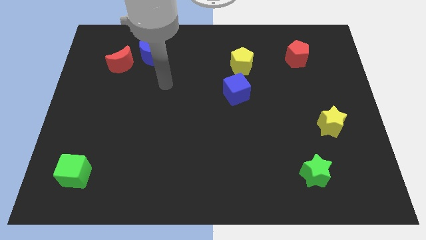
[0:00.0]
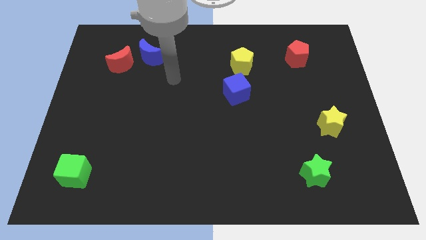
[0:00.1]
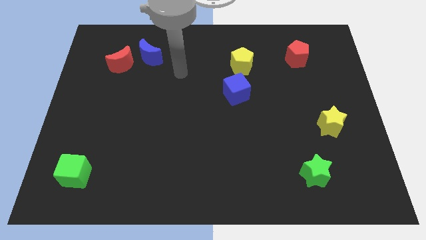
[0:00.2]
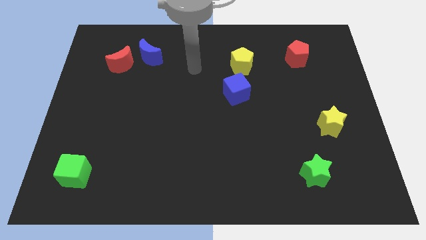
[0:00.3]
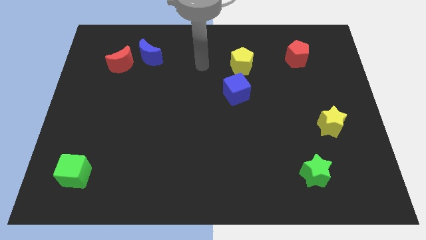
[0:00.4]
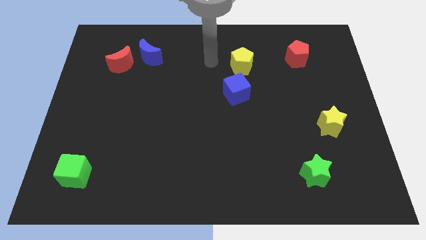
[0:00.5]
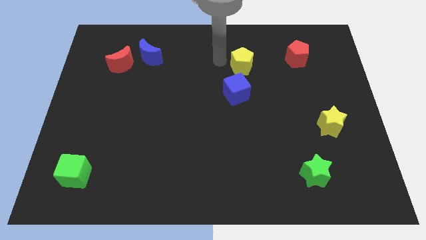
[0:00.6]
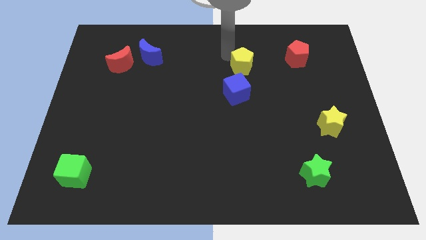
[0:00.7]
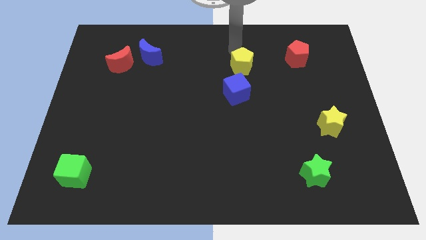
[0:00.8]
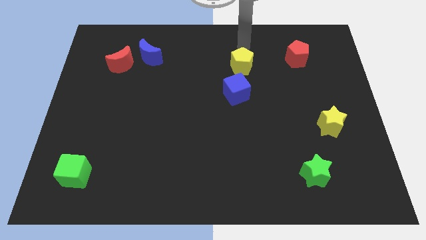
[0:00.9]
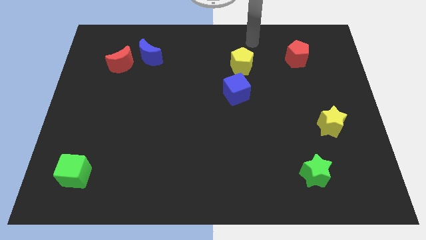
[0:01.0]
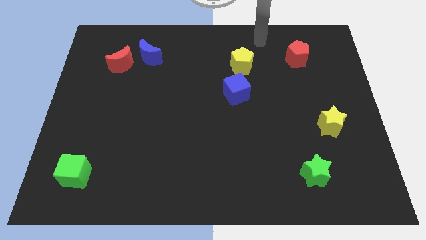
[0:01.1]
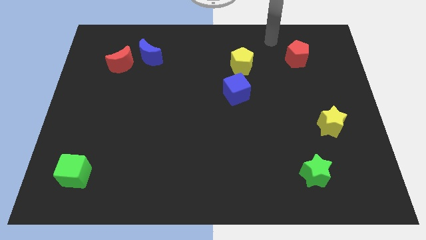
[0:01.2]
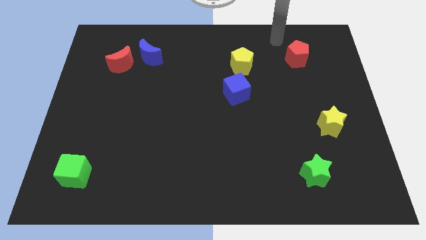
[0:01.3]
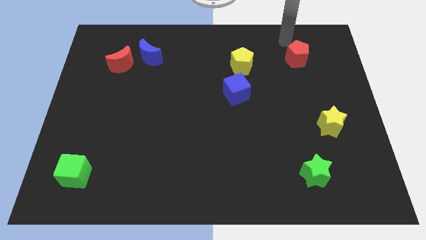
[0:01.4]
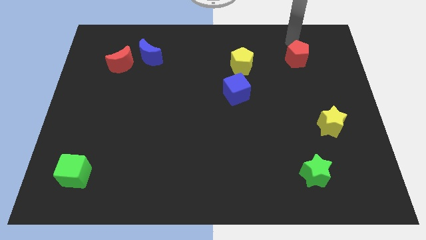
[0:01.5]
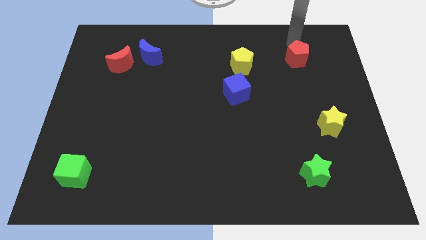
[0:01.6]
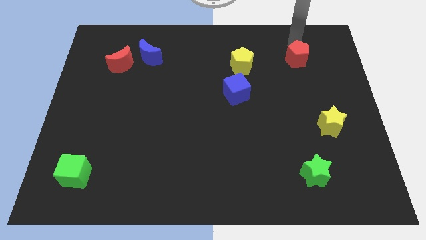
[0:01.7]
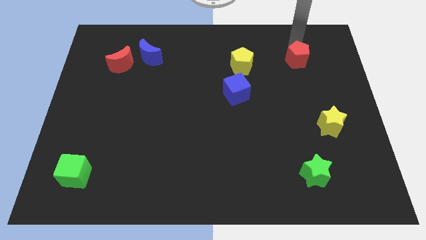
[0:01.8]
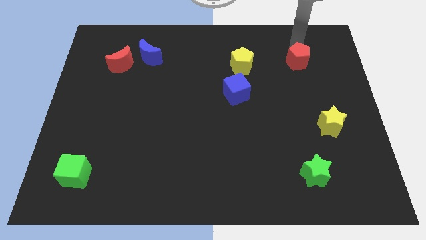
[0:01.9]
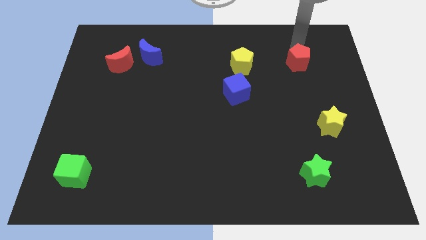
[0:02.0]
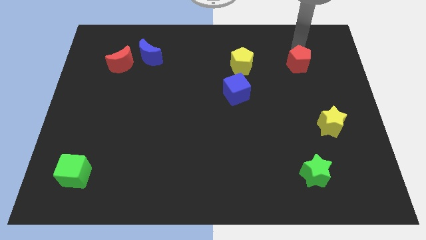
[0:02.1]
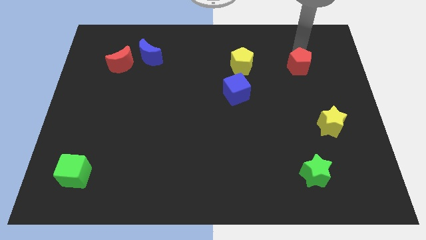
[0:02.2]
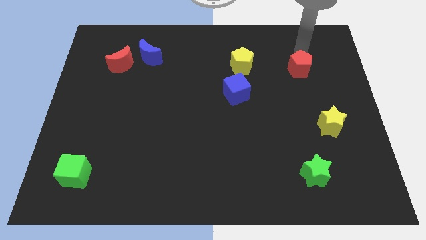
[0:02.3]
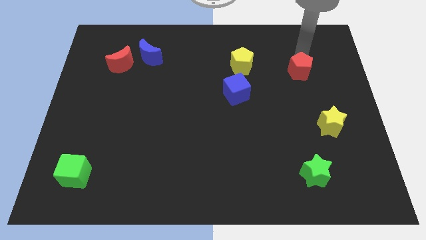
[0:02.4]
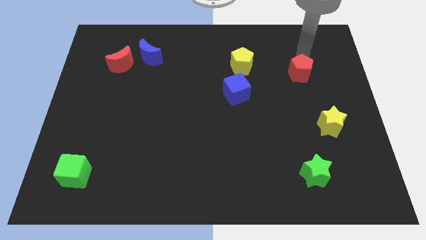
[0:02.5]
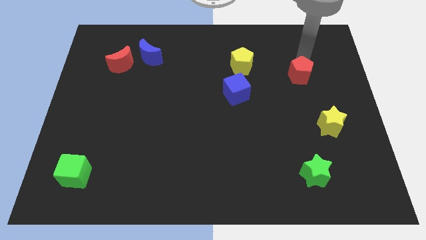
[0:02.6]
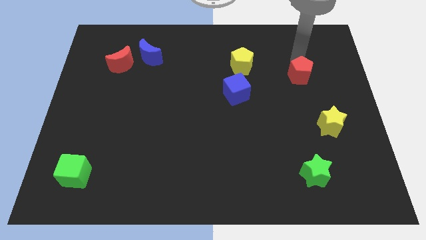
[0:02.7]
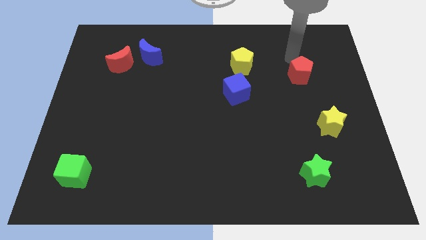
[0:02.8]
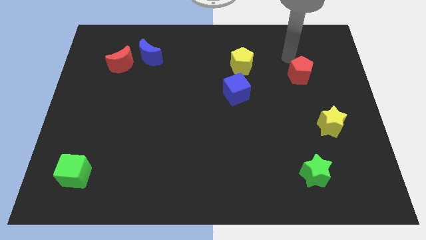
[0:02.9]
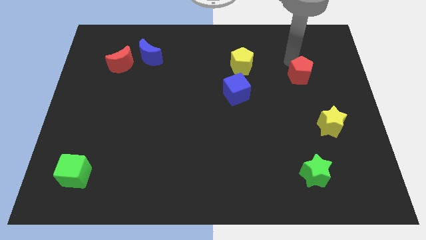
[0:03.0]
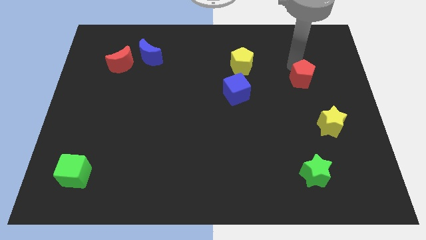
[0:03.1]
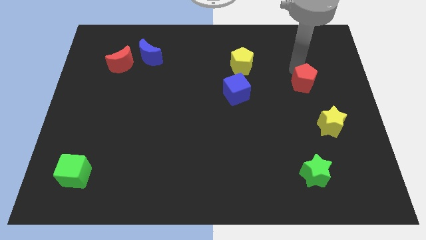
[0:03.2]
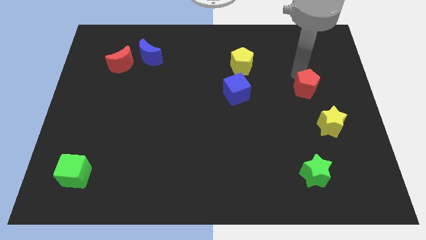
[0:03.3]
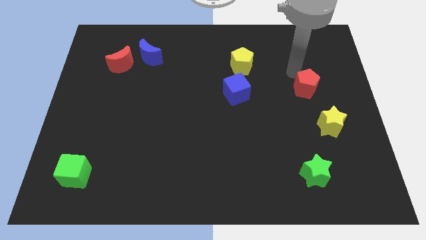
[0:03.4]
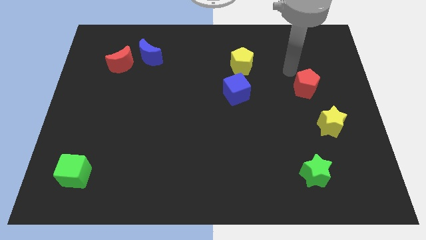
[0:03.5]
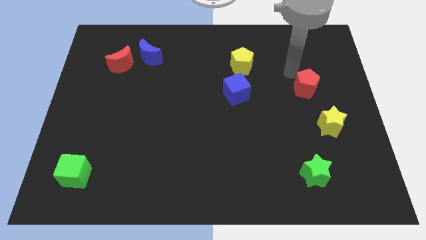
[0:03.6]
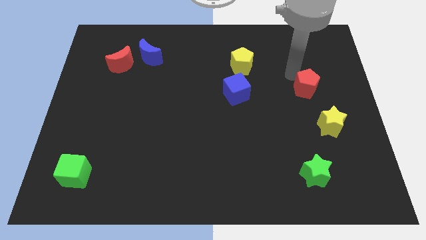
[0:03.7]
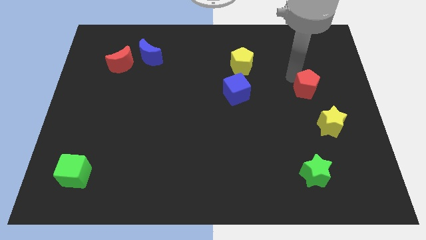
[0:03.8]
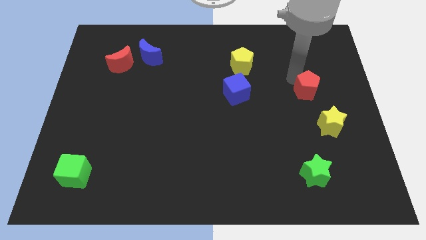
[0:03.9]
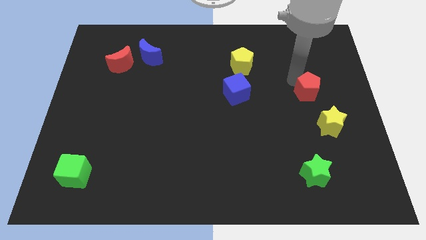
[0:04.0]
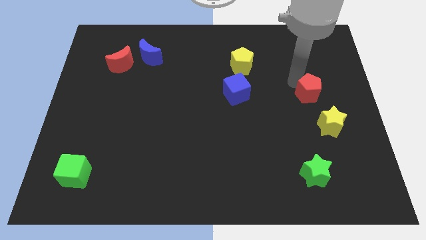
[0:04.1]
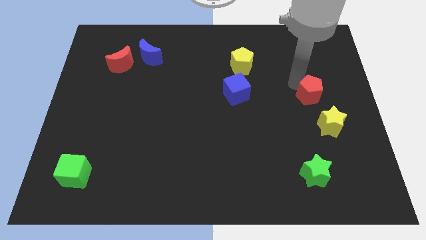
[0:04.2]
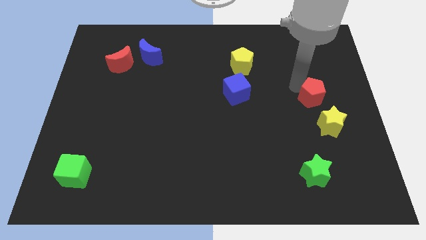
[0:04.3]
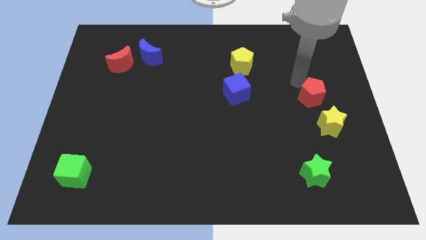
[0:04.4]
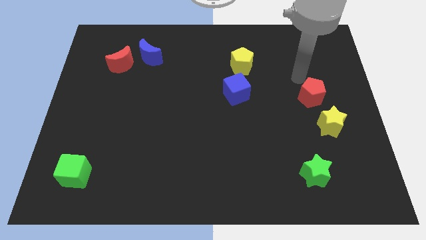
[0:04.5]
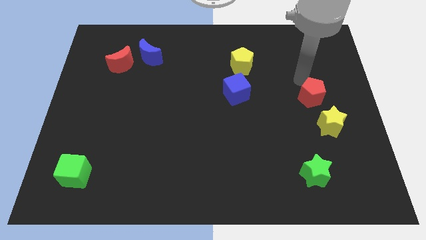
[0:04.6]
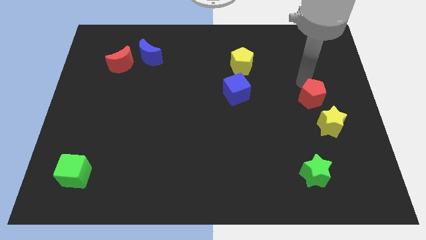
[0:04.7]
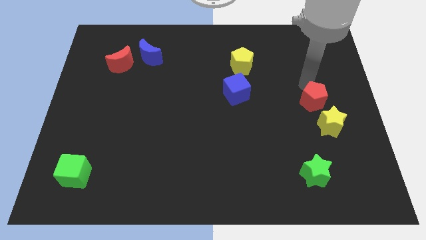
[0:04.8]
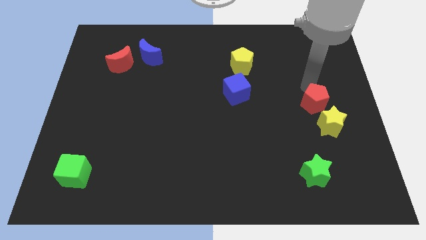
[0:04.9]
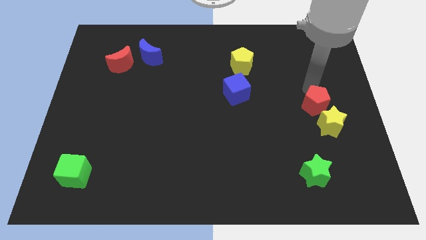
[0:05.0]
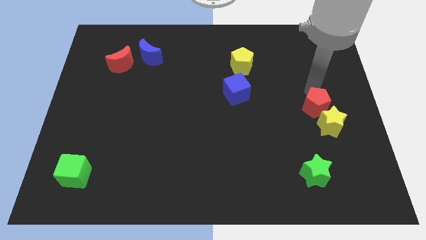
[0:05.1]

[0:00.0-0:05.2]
put the red pentagon to the yellow star

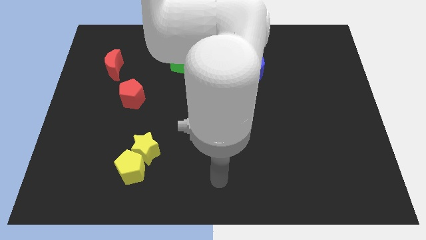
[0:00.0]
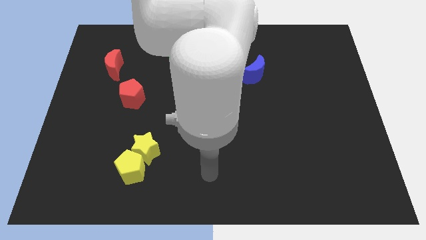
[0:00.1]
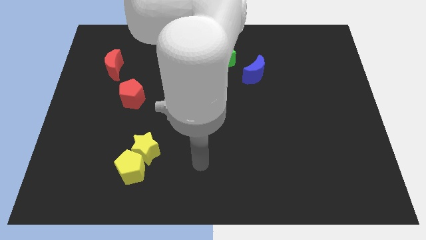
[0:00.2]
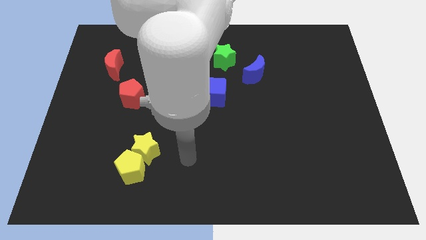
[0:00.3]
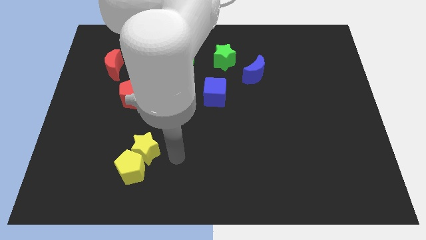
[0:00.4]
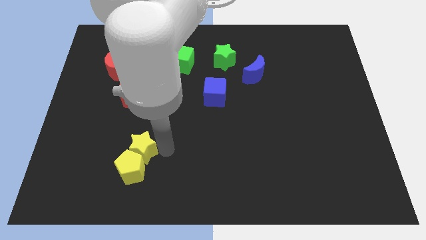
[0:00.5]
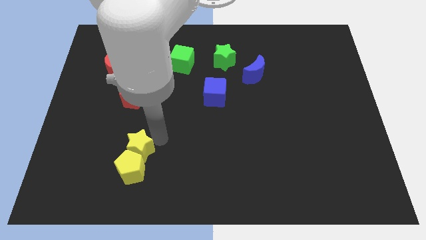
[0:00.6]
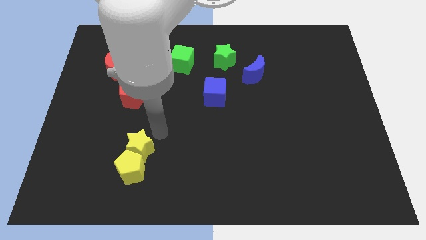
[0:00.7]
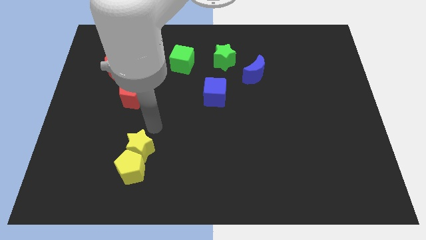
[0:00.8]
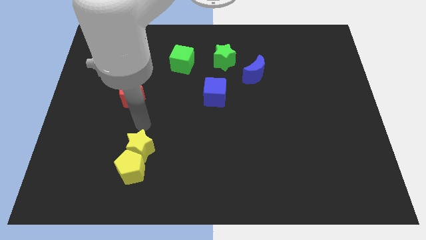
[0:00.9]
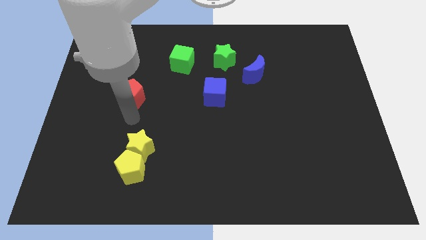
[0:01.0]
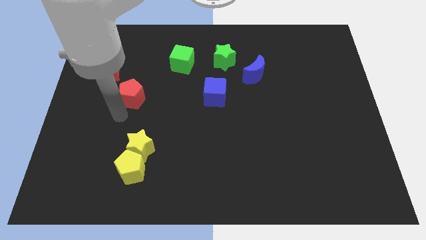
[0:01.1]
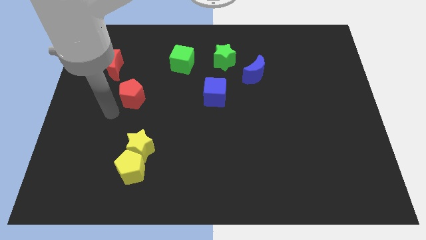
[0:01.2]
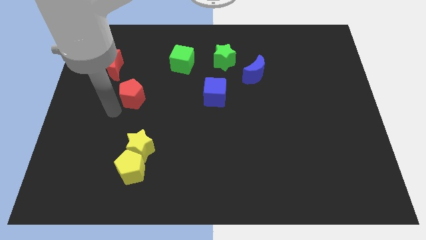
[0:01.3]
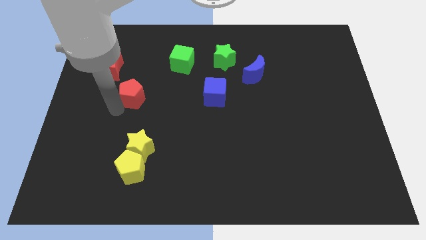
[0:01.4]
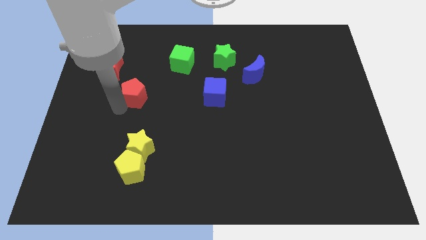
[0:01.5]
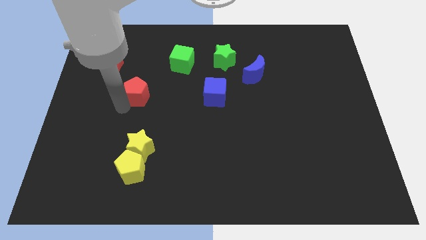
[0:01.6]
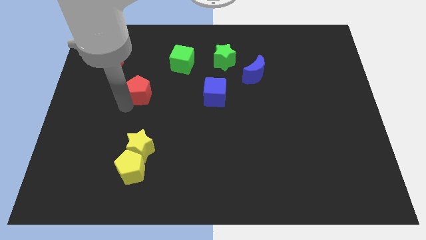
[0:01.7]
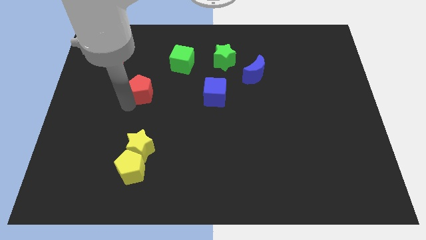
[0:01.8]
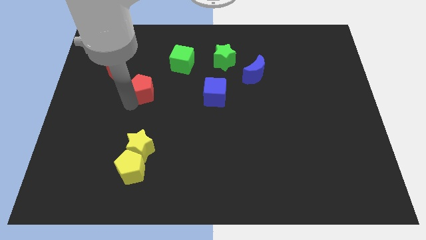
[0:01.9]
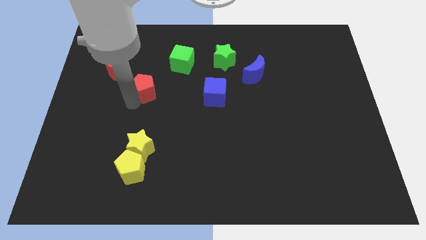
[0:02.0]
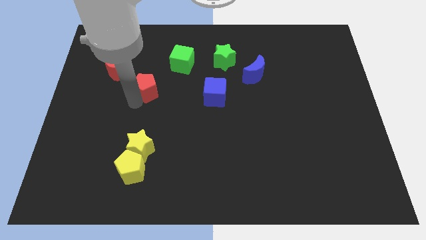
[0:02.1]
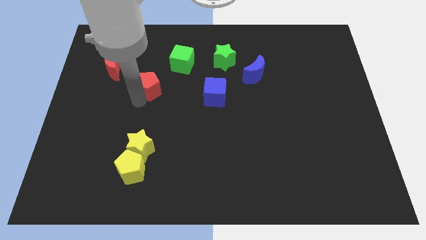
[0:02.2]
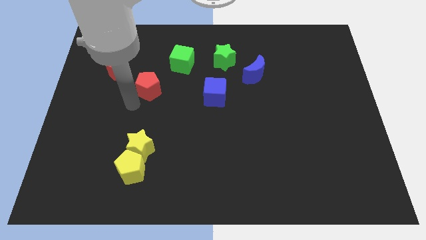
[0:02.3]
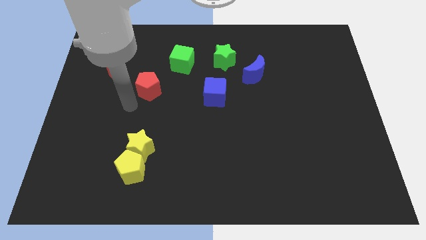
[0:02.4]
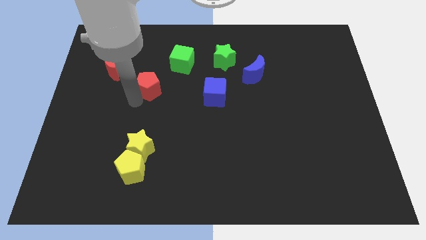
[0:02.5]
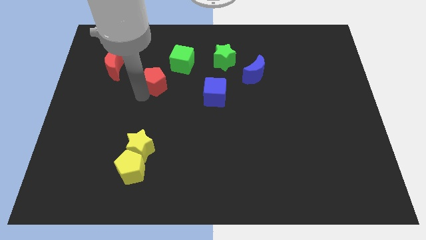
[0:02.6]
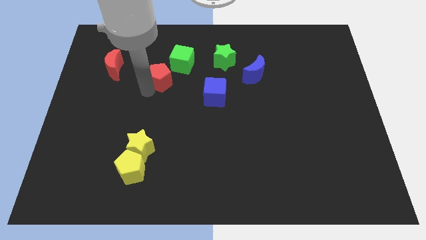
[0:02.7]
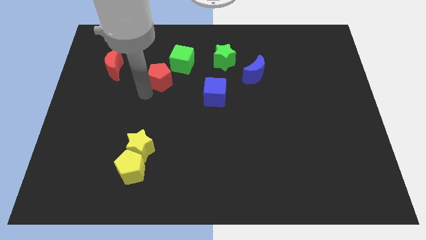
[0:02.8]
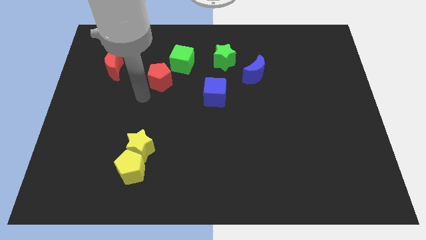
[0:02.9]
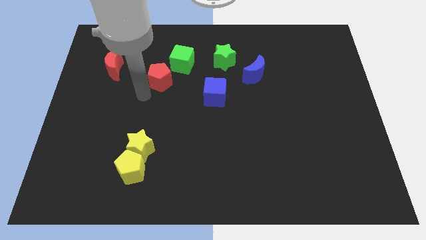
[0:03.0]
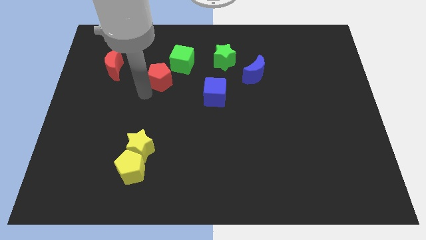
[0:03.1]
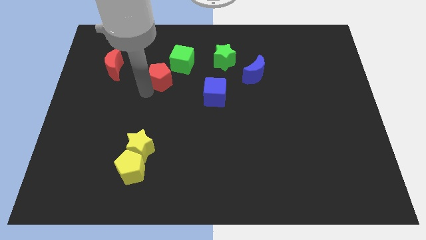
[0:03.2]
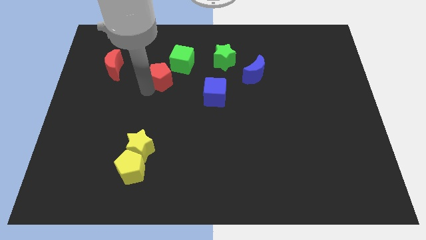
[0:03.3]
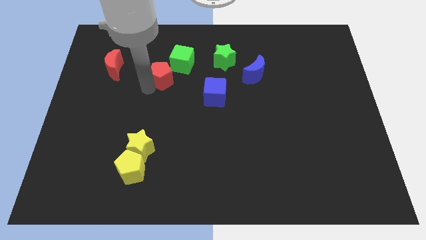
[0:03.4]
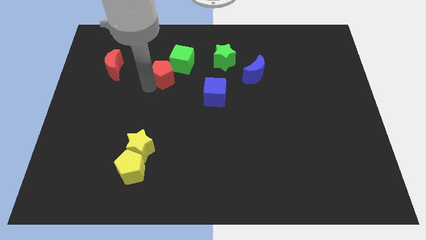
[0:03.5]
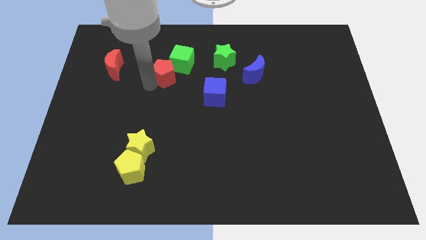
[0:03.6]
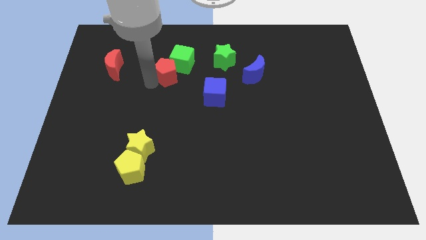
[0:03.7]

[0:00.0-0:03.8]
put the red pentagon next to the green cube
